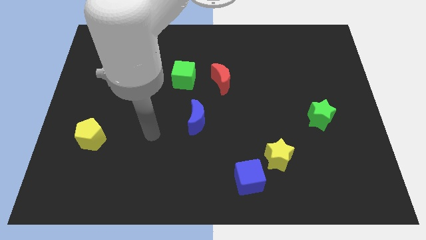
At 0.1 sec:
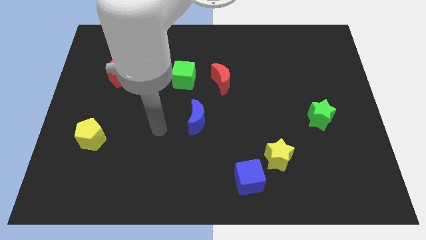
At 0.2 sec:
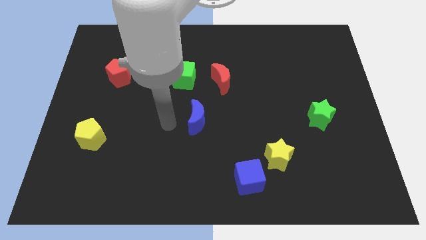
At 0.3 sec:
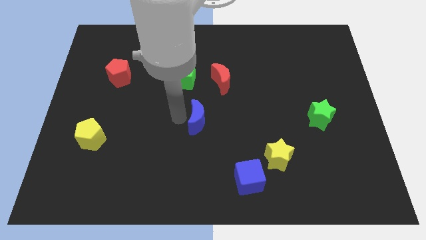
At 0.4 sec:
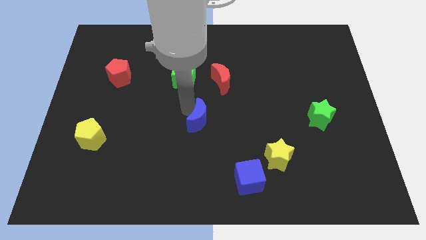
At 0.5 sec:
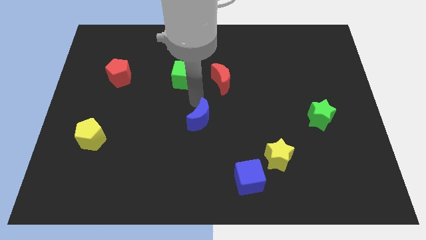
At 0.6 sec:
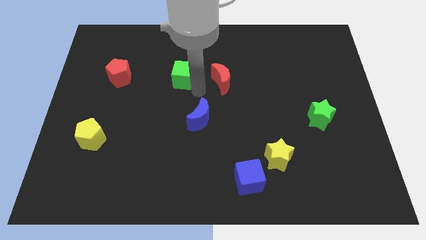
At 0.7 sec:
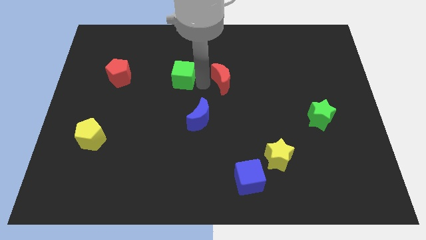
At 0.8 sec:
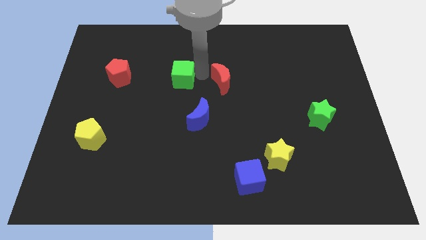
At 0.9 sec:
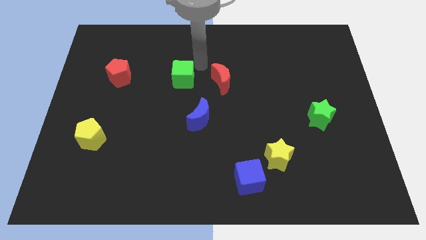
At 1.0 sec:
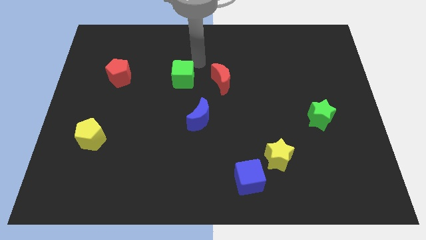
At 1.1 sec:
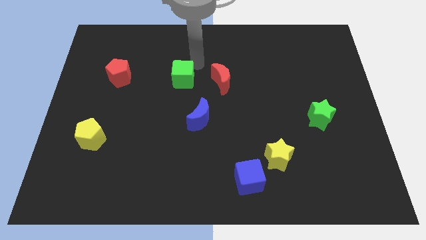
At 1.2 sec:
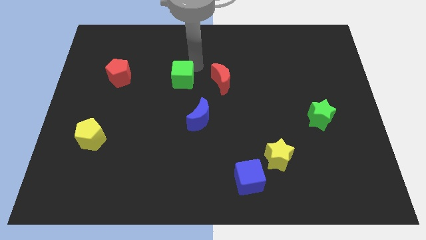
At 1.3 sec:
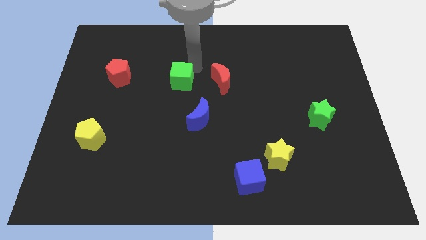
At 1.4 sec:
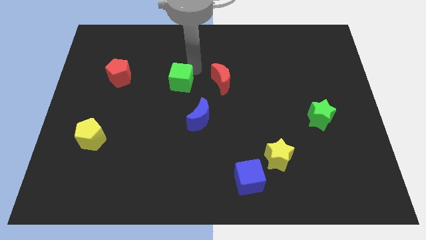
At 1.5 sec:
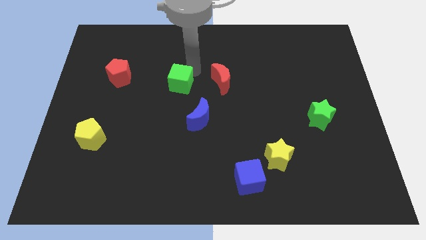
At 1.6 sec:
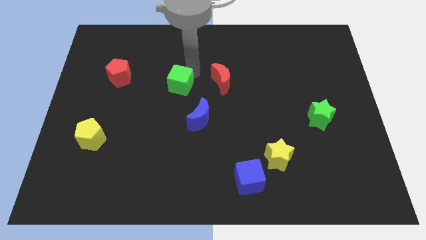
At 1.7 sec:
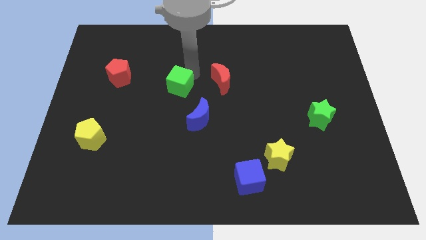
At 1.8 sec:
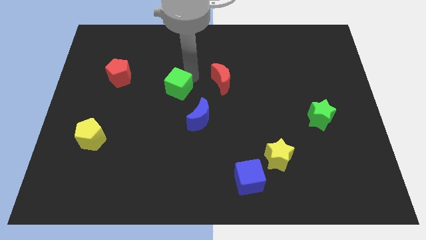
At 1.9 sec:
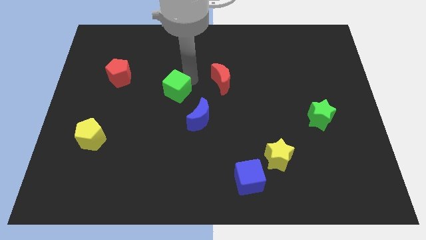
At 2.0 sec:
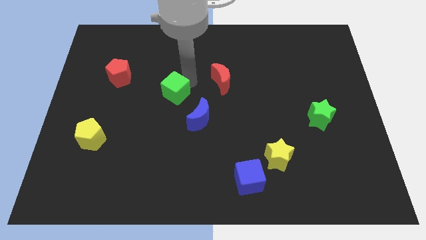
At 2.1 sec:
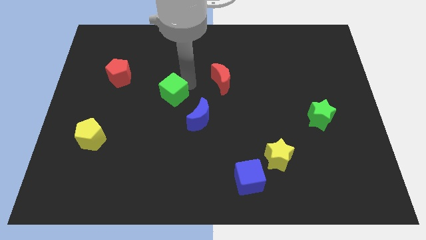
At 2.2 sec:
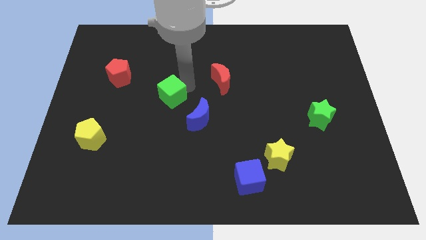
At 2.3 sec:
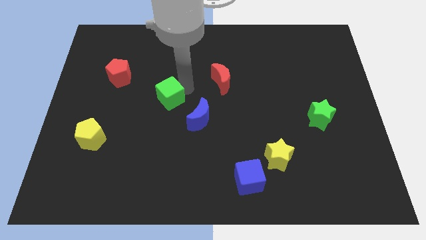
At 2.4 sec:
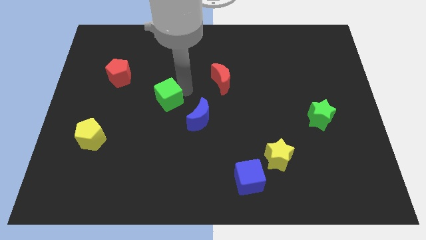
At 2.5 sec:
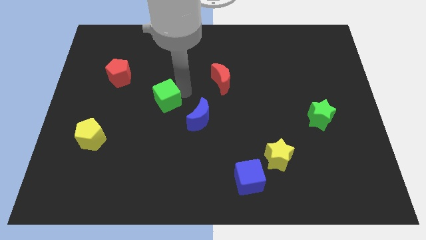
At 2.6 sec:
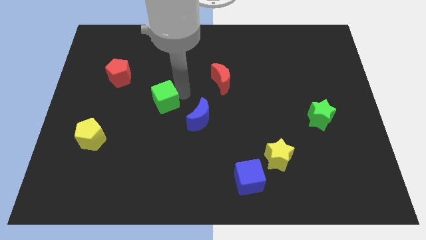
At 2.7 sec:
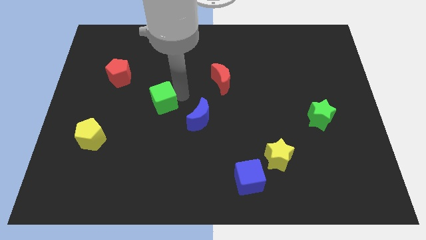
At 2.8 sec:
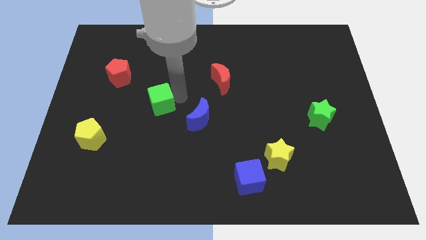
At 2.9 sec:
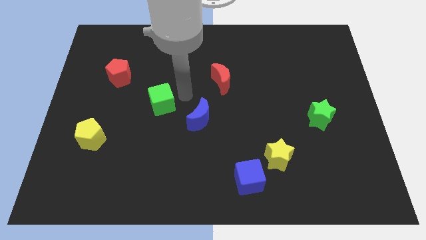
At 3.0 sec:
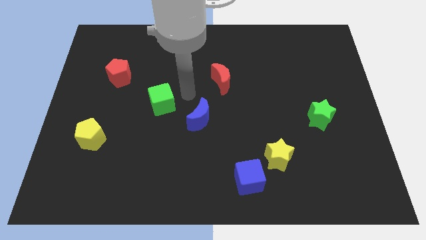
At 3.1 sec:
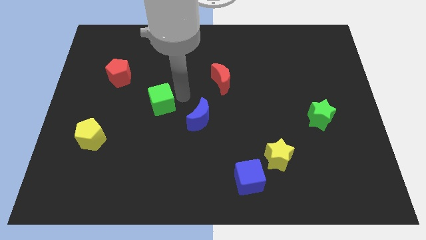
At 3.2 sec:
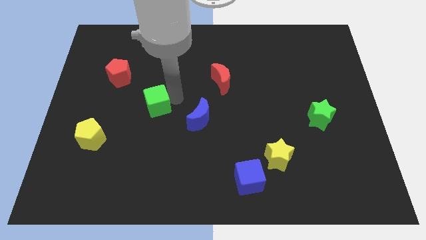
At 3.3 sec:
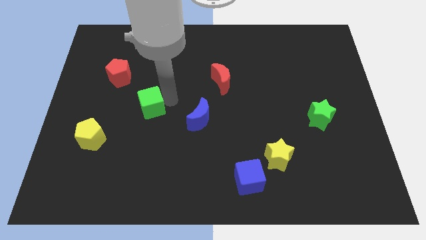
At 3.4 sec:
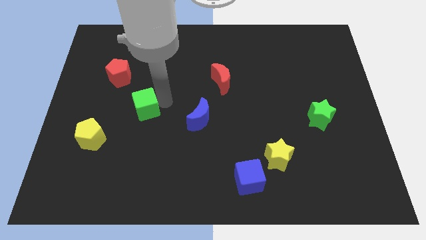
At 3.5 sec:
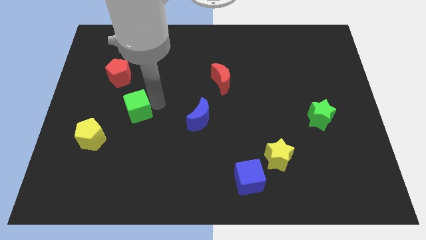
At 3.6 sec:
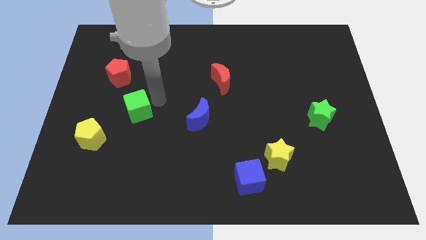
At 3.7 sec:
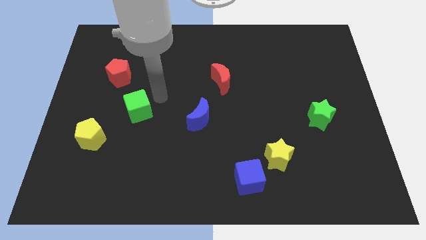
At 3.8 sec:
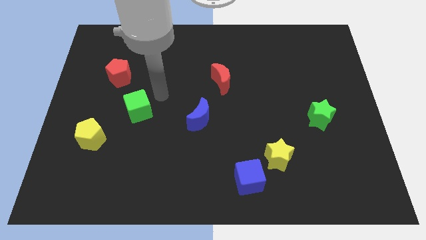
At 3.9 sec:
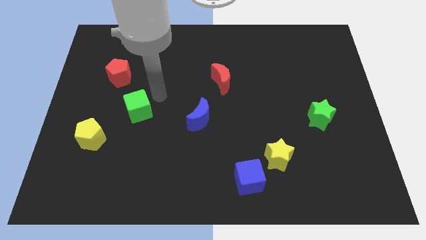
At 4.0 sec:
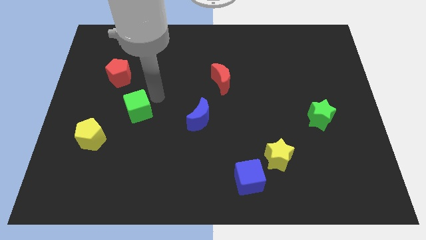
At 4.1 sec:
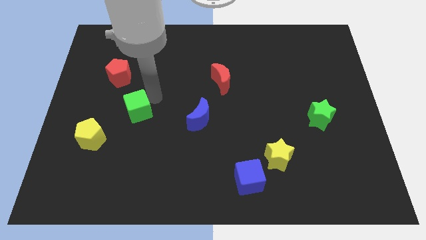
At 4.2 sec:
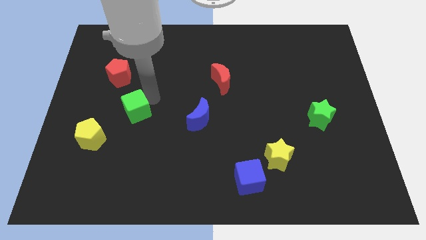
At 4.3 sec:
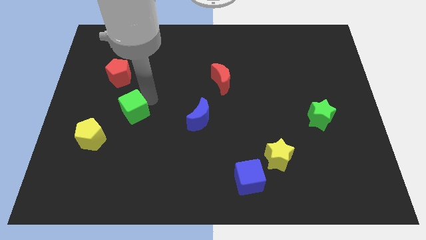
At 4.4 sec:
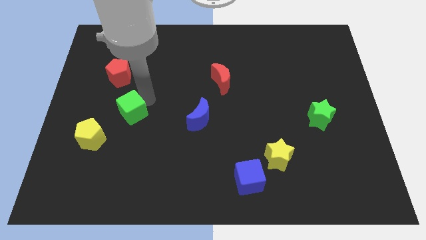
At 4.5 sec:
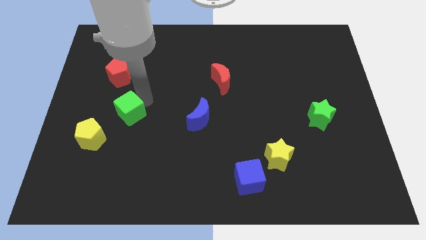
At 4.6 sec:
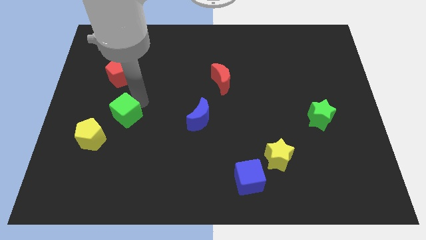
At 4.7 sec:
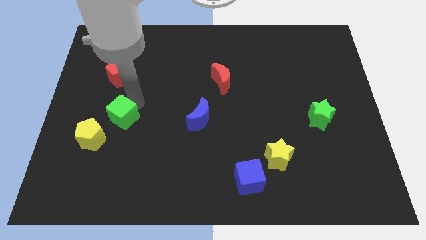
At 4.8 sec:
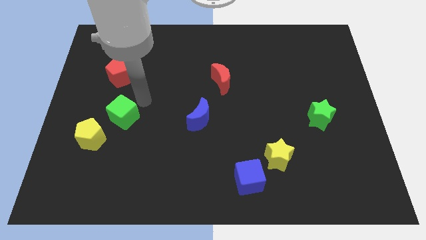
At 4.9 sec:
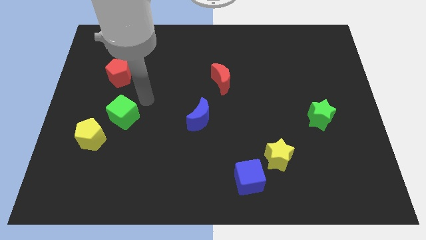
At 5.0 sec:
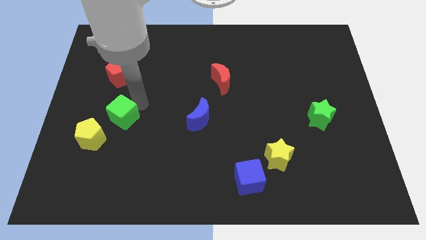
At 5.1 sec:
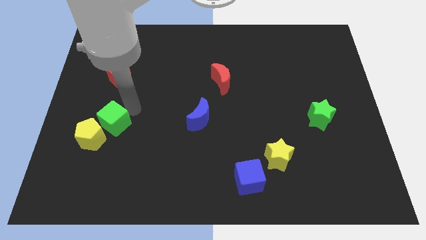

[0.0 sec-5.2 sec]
slide the green cube close to the yellow pentagon

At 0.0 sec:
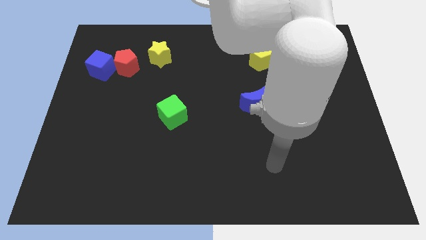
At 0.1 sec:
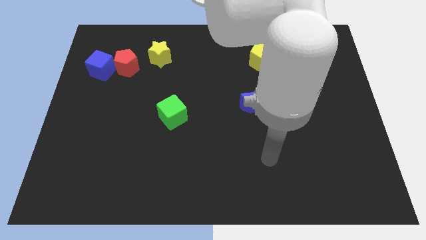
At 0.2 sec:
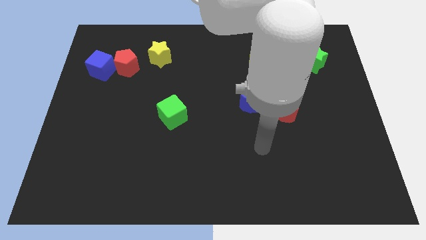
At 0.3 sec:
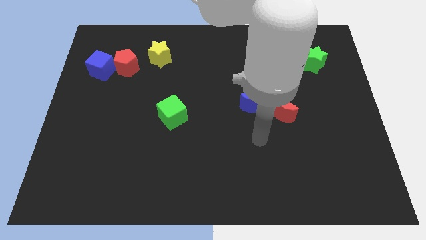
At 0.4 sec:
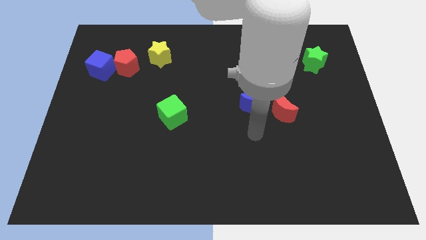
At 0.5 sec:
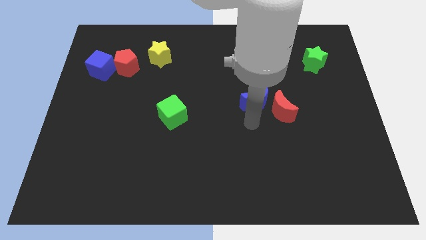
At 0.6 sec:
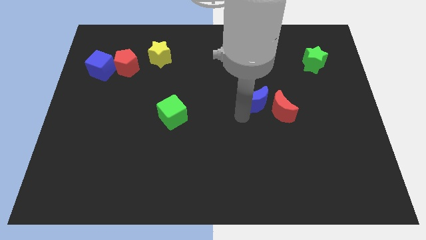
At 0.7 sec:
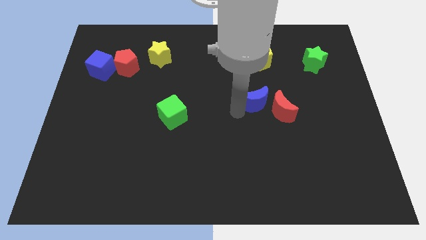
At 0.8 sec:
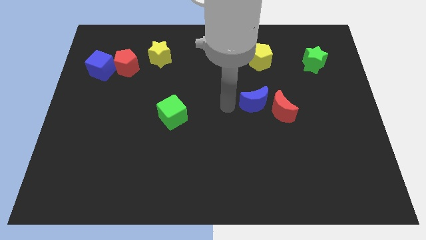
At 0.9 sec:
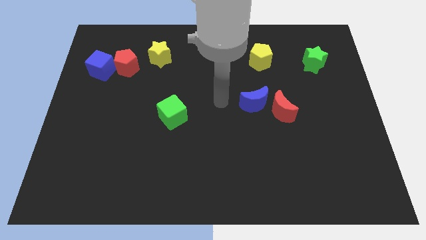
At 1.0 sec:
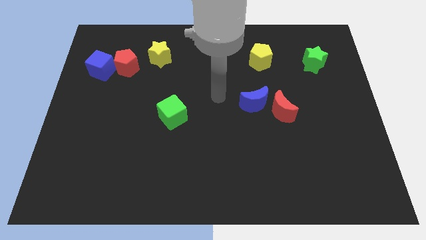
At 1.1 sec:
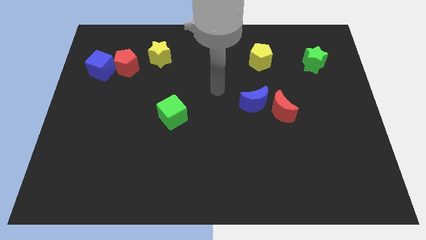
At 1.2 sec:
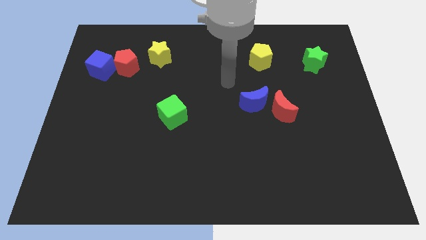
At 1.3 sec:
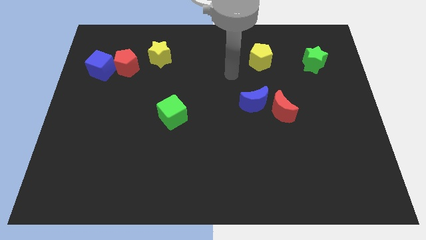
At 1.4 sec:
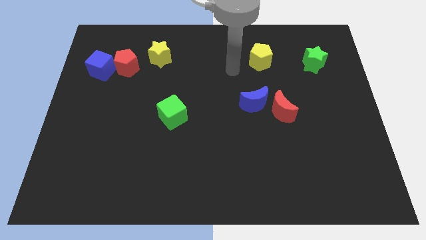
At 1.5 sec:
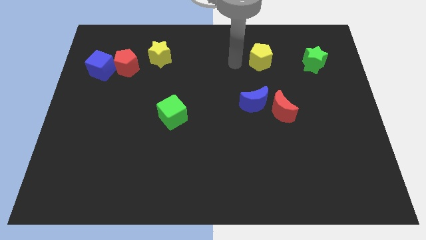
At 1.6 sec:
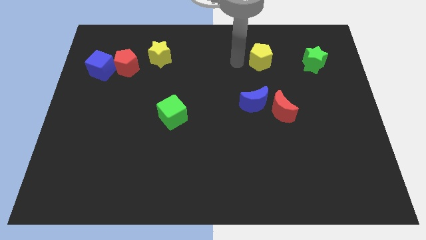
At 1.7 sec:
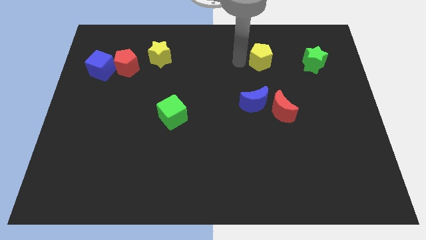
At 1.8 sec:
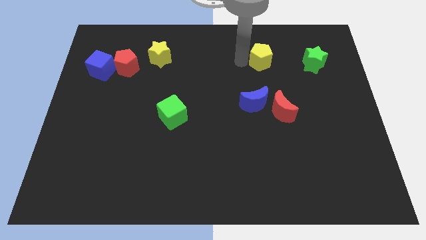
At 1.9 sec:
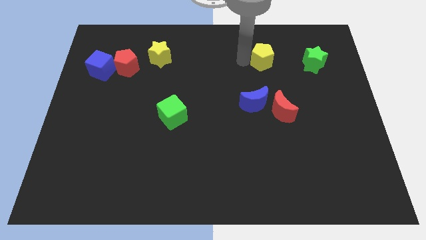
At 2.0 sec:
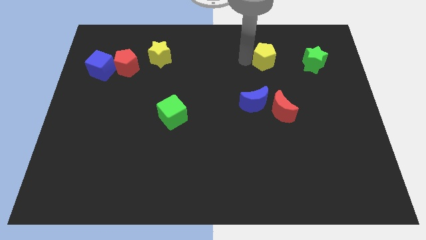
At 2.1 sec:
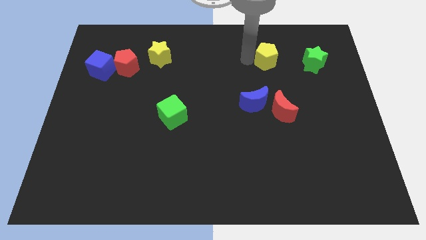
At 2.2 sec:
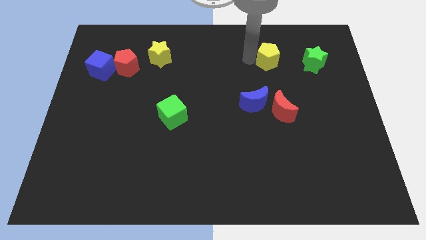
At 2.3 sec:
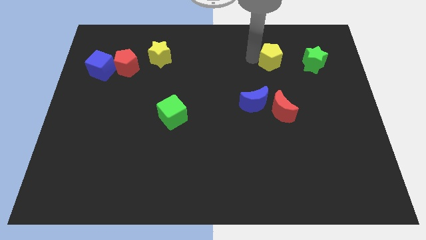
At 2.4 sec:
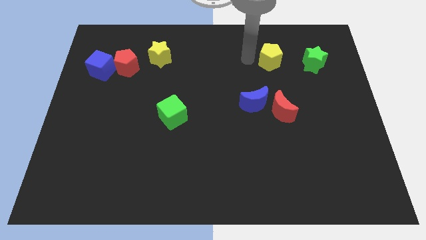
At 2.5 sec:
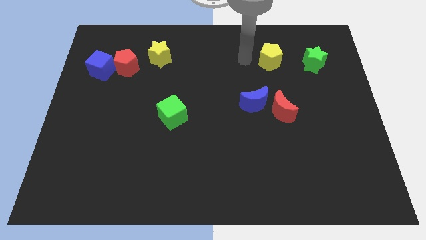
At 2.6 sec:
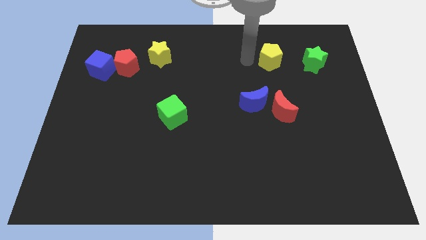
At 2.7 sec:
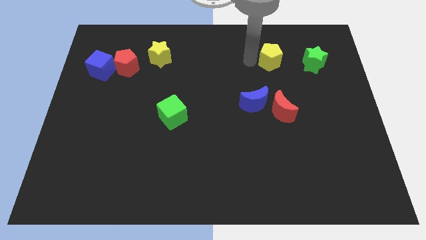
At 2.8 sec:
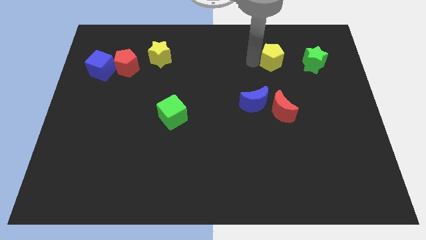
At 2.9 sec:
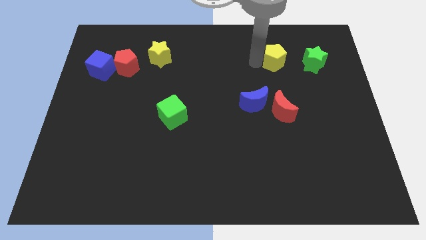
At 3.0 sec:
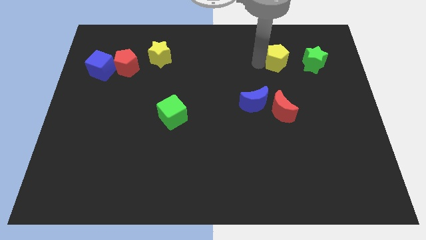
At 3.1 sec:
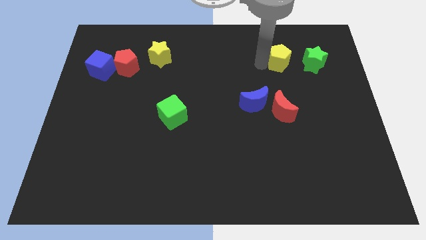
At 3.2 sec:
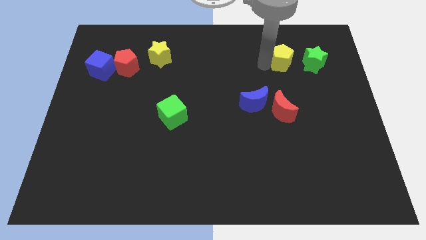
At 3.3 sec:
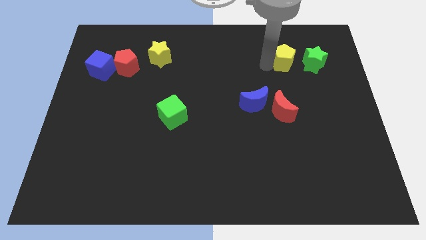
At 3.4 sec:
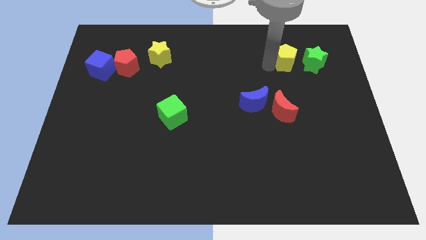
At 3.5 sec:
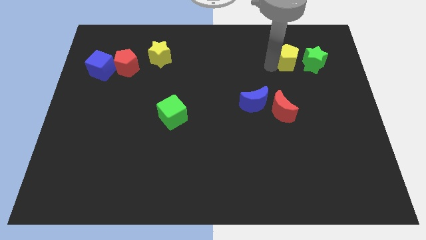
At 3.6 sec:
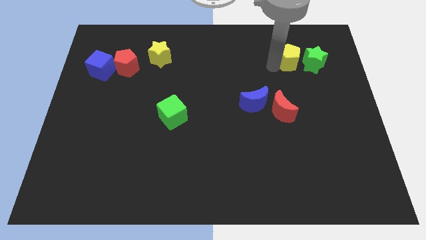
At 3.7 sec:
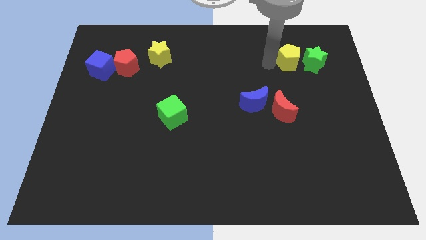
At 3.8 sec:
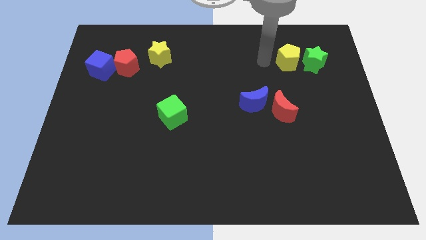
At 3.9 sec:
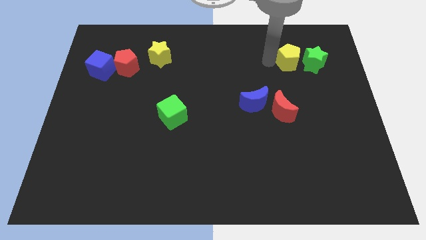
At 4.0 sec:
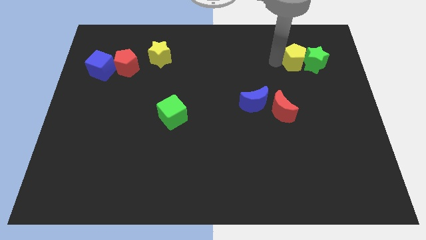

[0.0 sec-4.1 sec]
move the yellow pentagon close to the green star
